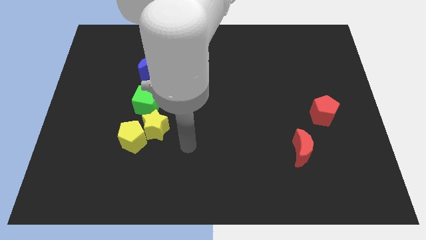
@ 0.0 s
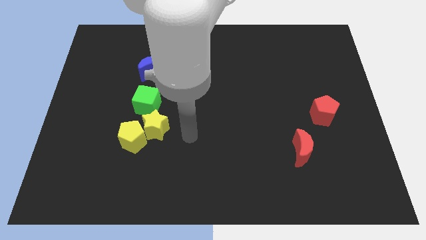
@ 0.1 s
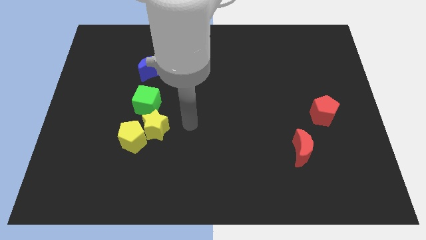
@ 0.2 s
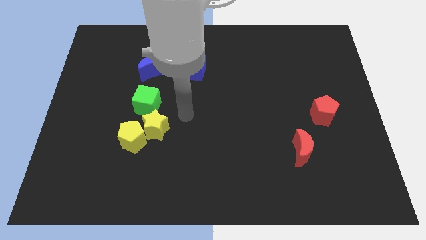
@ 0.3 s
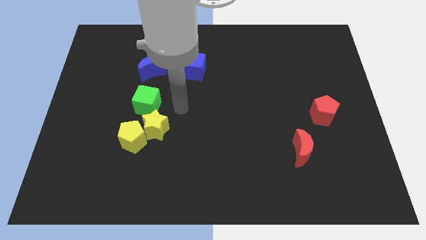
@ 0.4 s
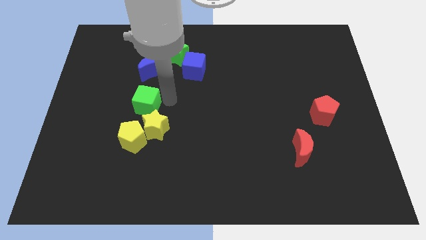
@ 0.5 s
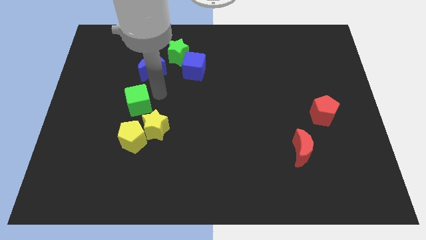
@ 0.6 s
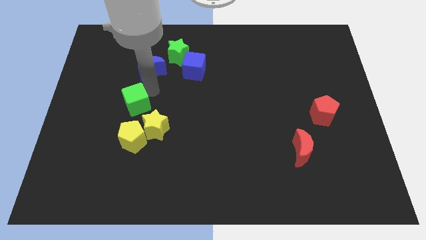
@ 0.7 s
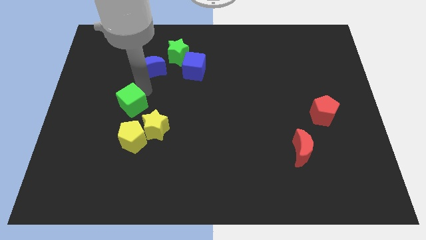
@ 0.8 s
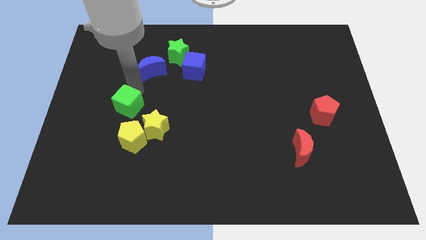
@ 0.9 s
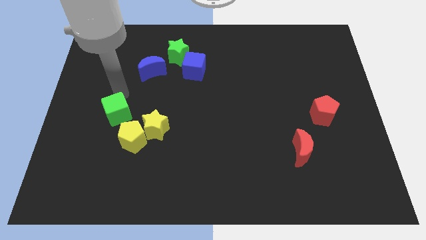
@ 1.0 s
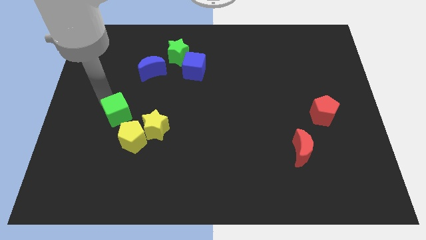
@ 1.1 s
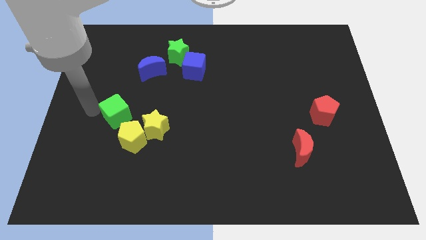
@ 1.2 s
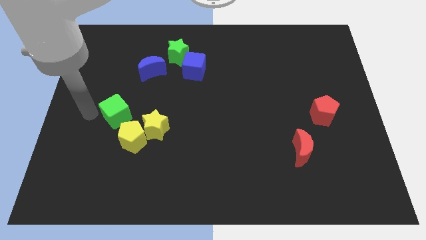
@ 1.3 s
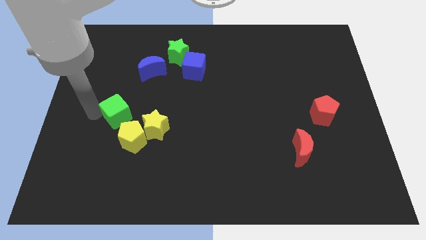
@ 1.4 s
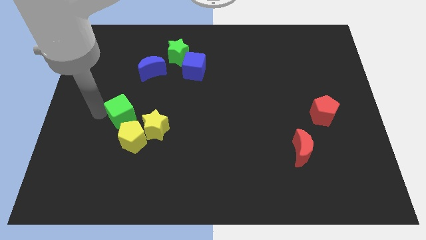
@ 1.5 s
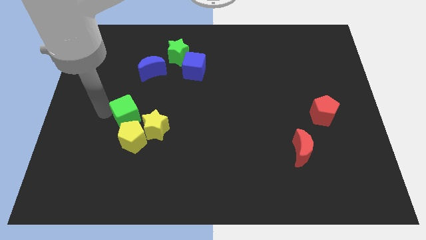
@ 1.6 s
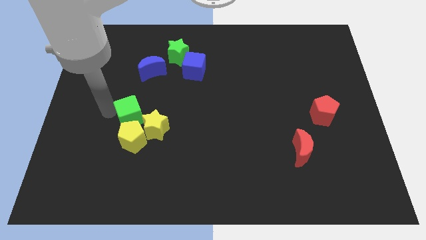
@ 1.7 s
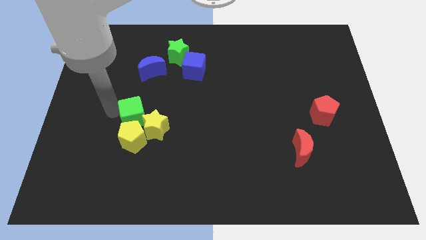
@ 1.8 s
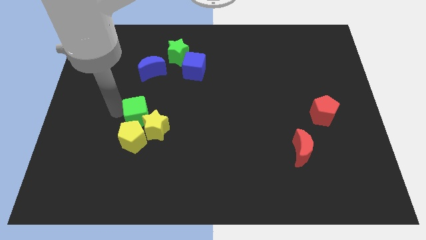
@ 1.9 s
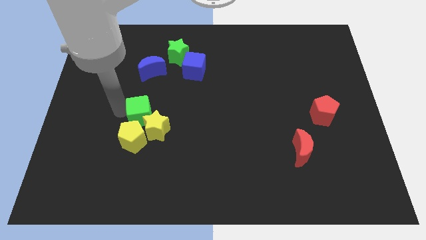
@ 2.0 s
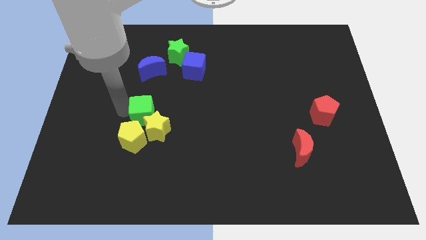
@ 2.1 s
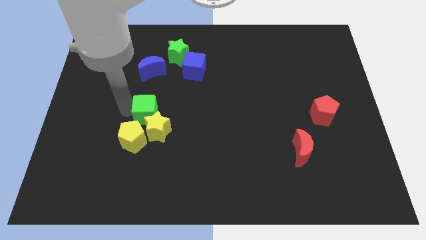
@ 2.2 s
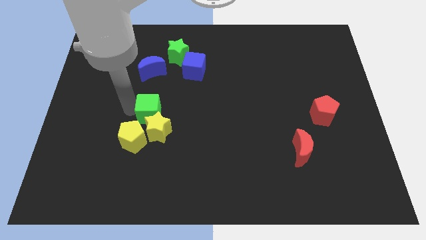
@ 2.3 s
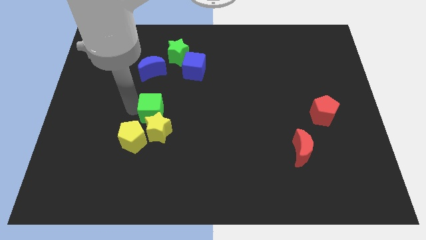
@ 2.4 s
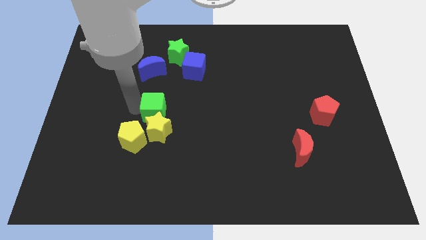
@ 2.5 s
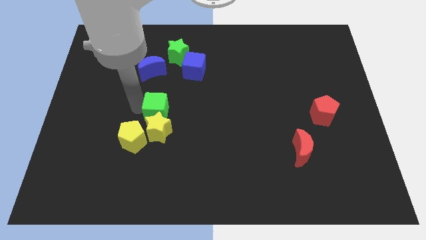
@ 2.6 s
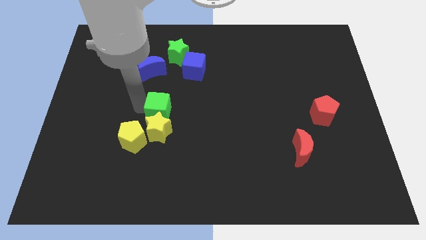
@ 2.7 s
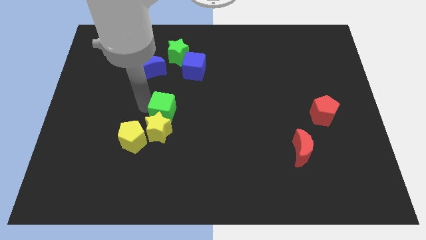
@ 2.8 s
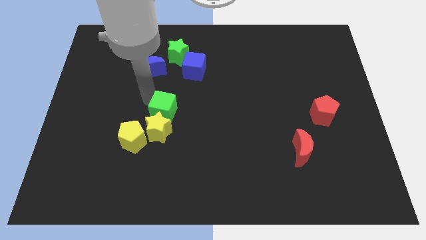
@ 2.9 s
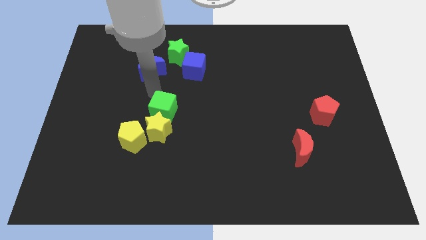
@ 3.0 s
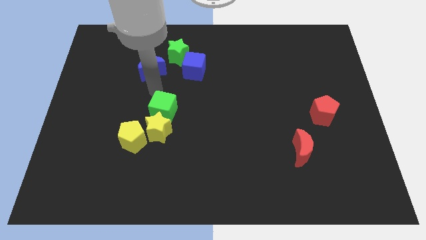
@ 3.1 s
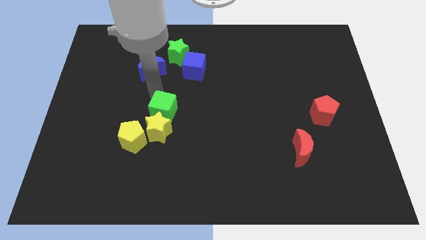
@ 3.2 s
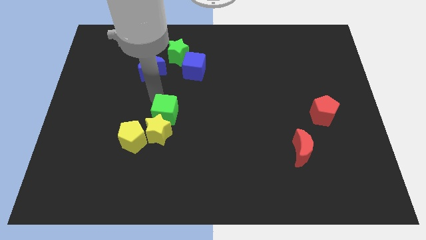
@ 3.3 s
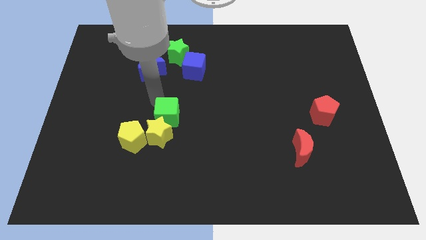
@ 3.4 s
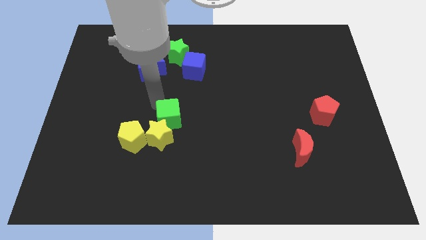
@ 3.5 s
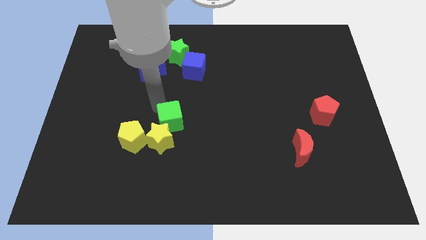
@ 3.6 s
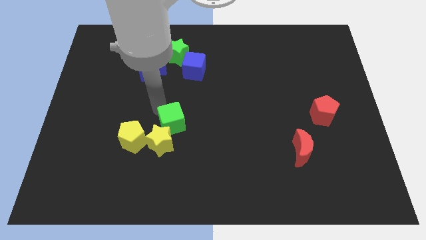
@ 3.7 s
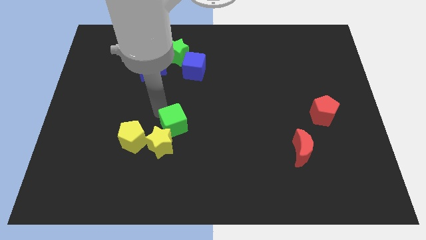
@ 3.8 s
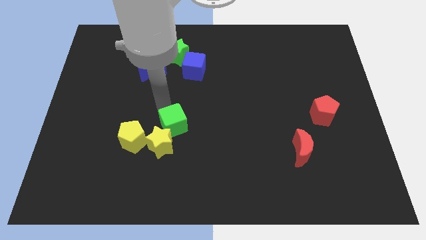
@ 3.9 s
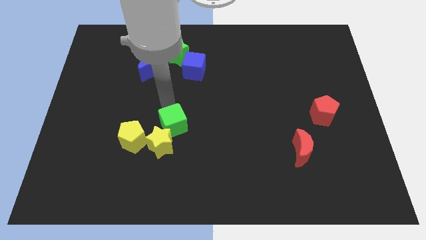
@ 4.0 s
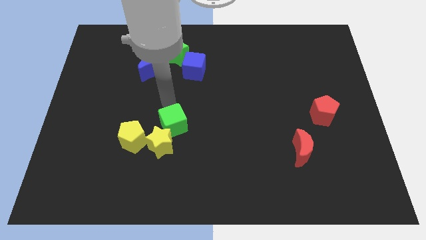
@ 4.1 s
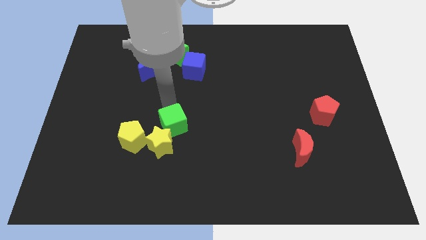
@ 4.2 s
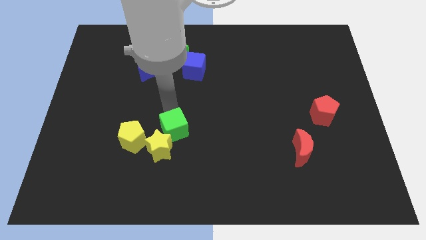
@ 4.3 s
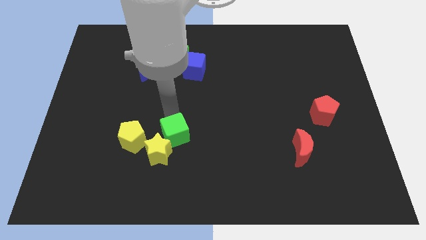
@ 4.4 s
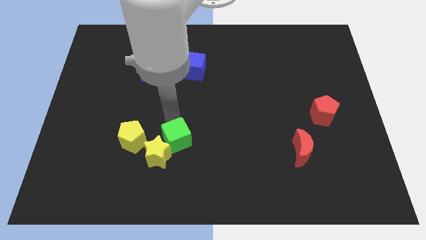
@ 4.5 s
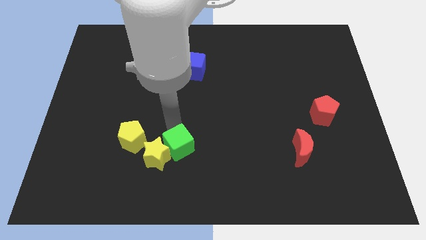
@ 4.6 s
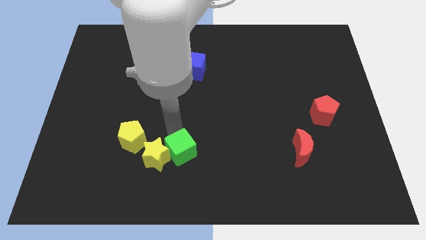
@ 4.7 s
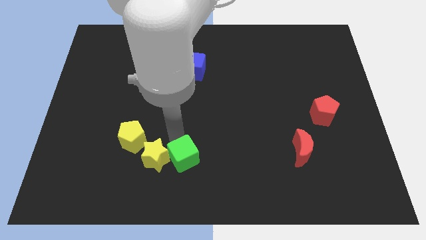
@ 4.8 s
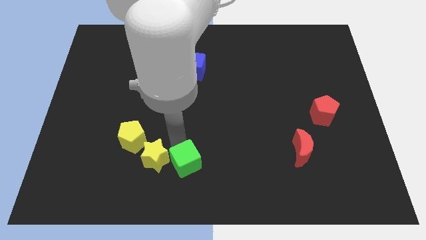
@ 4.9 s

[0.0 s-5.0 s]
move the green cube to the bottom side

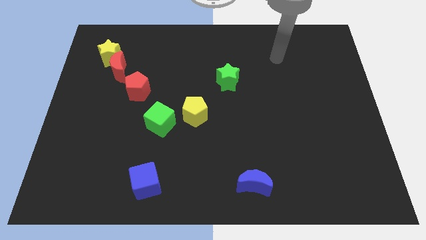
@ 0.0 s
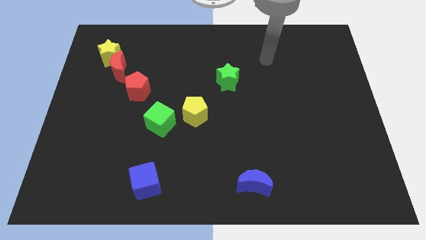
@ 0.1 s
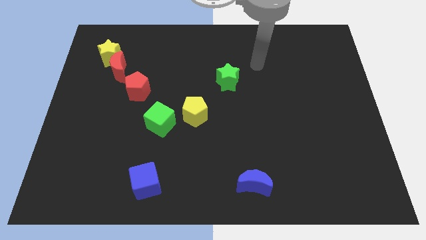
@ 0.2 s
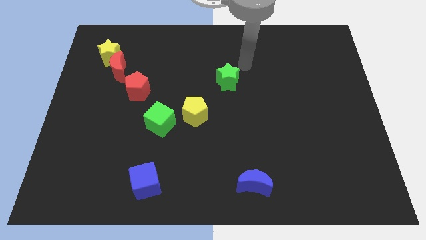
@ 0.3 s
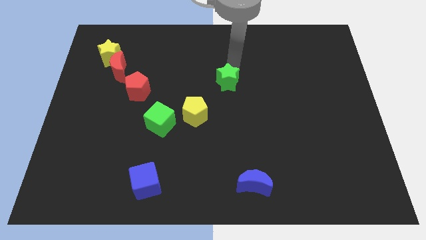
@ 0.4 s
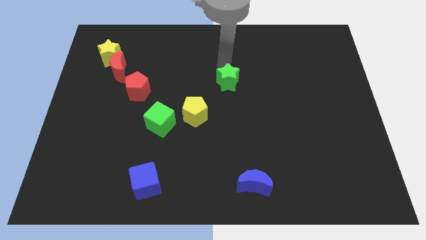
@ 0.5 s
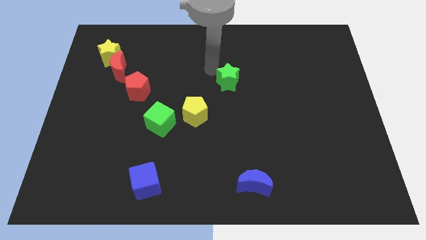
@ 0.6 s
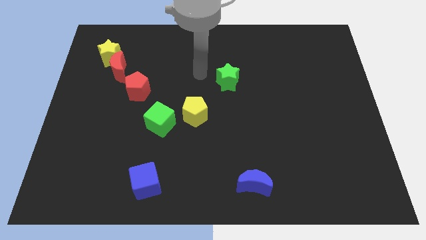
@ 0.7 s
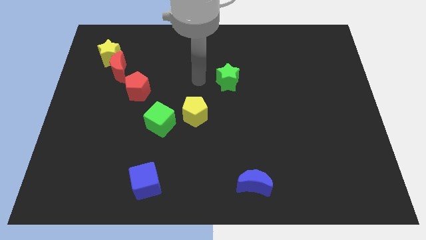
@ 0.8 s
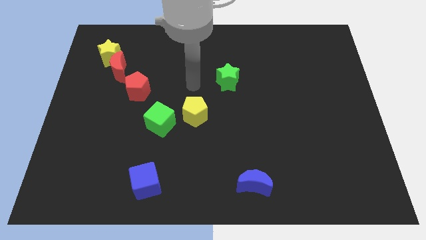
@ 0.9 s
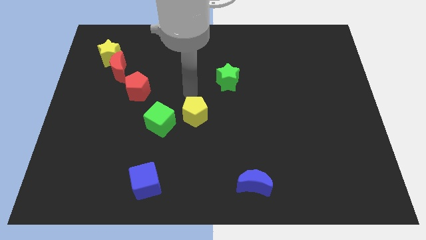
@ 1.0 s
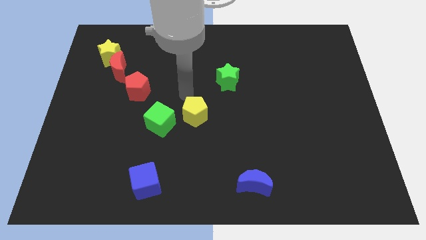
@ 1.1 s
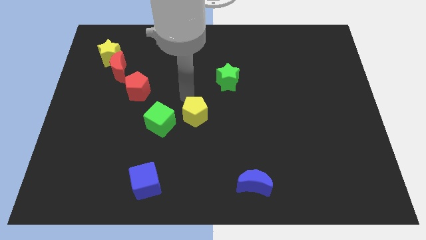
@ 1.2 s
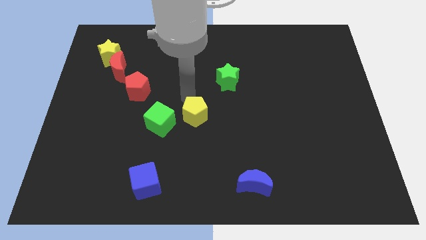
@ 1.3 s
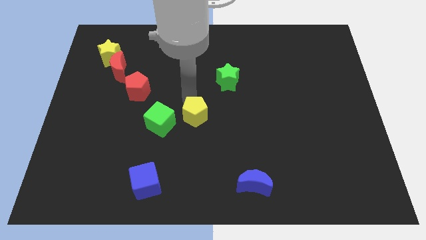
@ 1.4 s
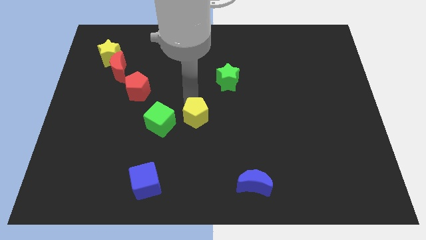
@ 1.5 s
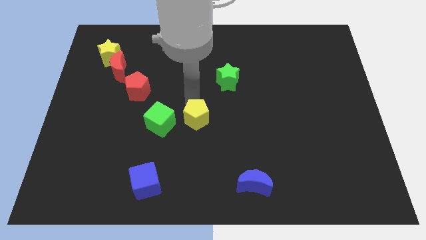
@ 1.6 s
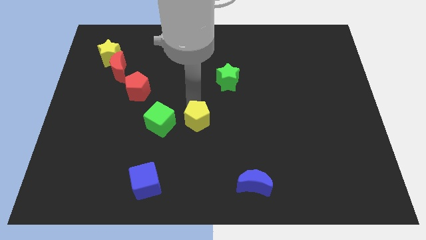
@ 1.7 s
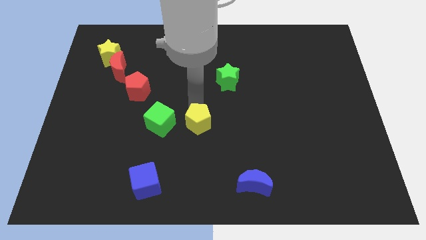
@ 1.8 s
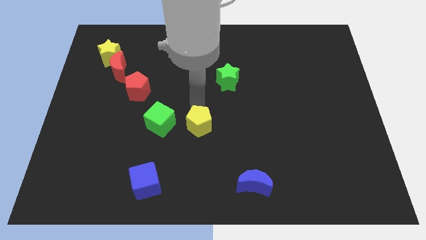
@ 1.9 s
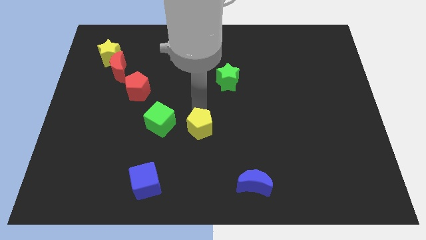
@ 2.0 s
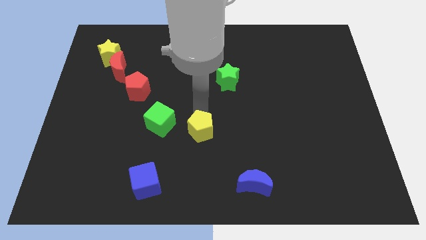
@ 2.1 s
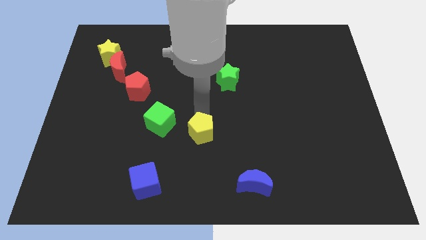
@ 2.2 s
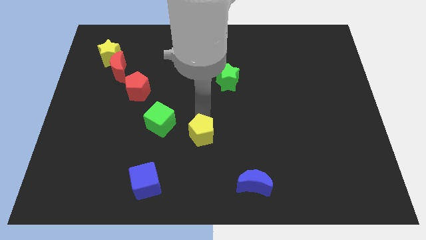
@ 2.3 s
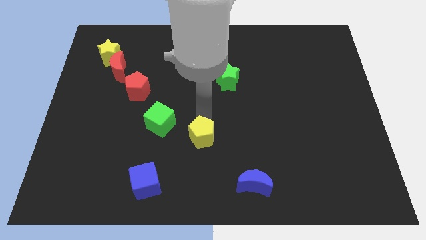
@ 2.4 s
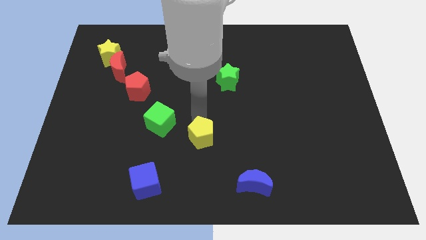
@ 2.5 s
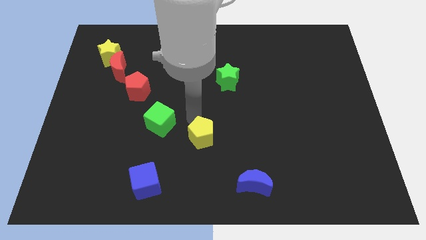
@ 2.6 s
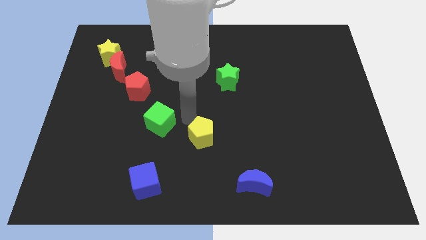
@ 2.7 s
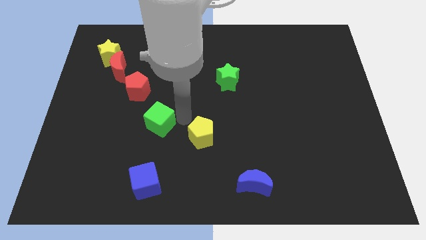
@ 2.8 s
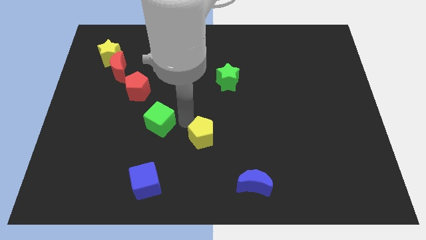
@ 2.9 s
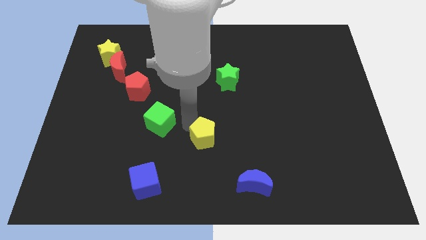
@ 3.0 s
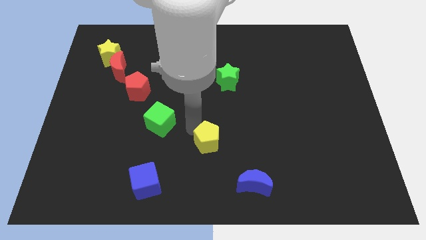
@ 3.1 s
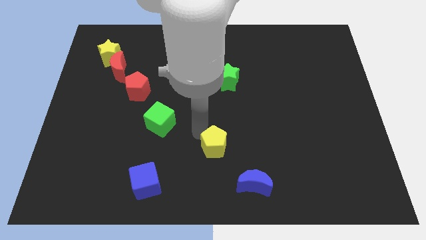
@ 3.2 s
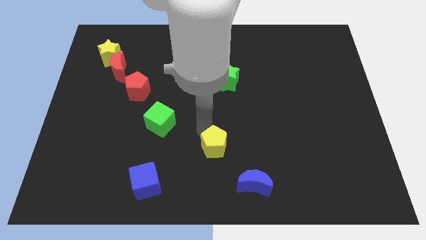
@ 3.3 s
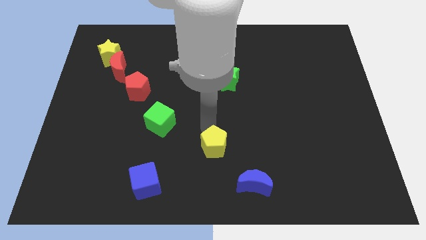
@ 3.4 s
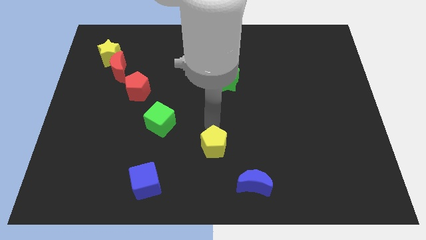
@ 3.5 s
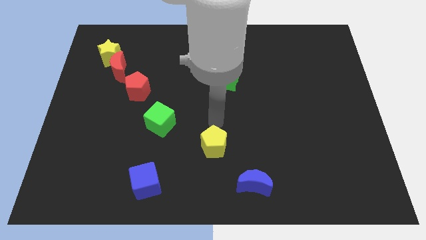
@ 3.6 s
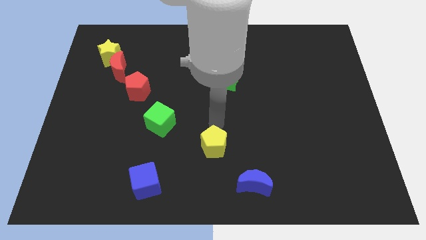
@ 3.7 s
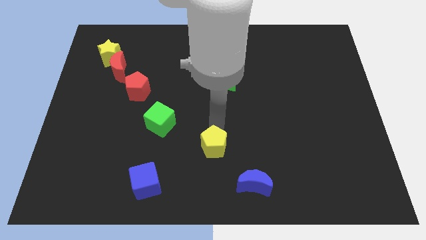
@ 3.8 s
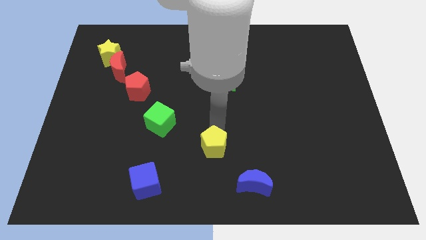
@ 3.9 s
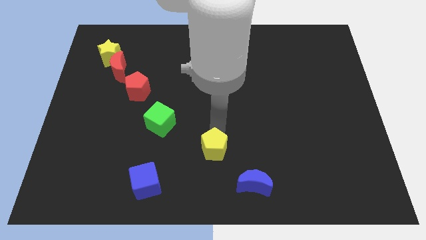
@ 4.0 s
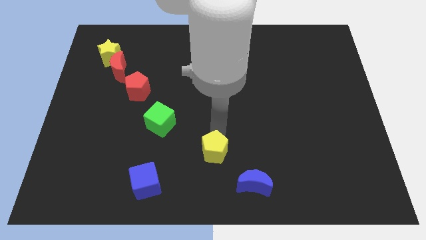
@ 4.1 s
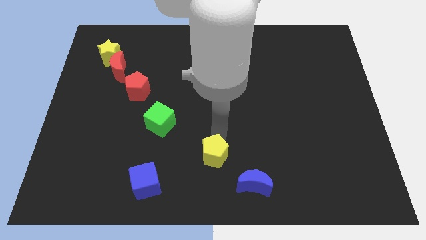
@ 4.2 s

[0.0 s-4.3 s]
move the yellow pentagon to the bottom
